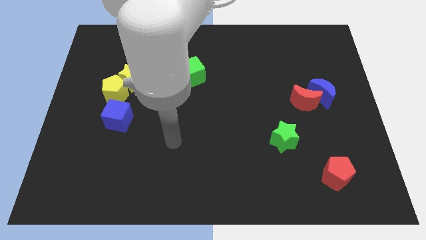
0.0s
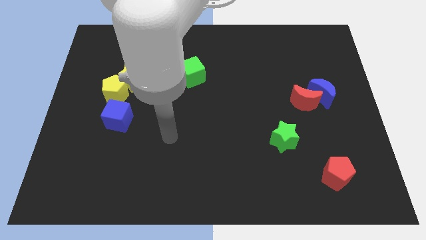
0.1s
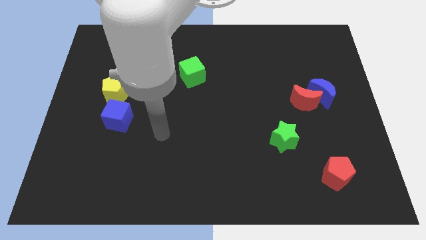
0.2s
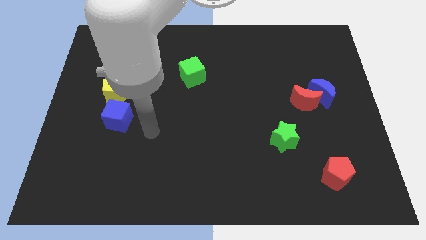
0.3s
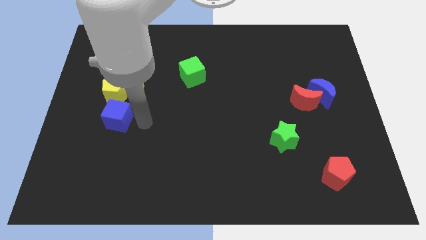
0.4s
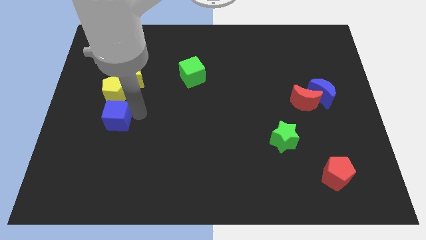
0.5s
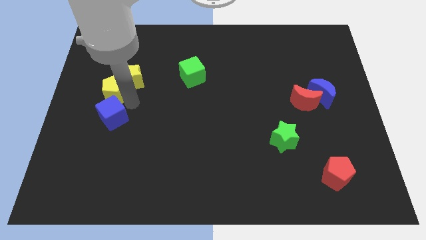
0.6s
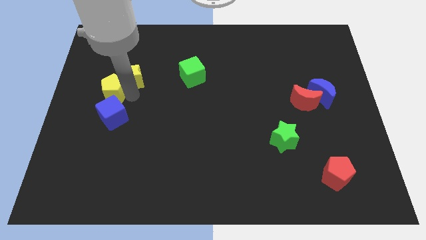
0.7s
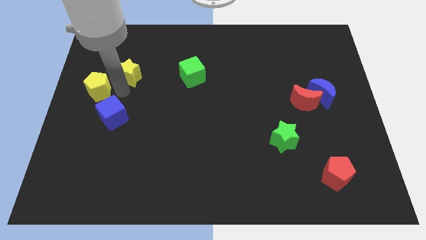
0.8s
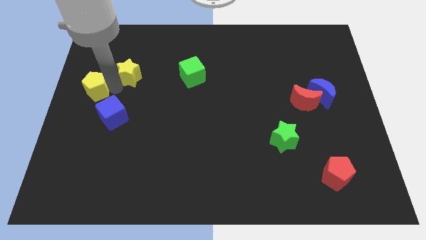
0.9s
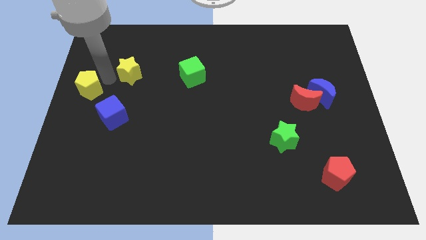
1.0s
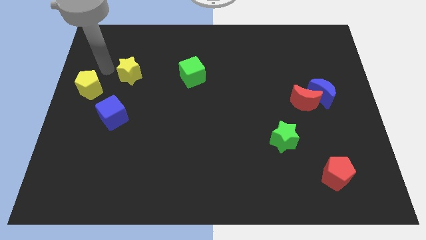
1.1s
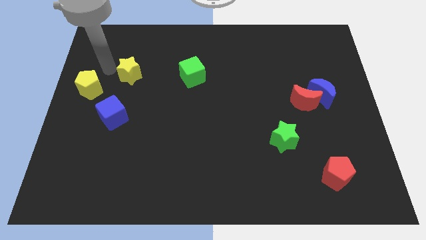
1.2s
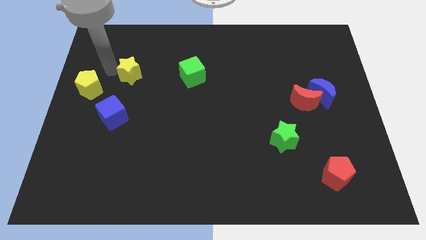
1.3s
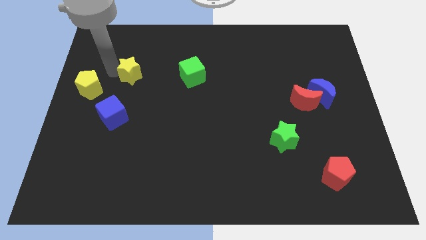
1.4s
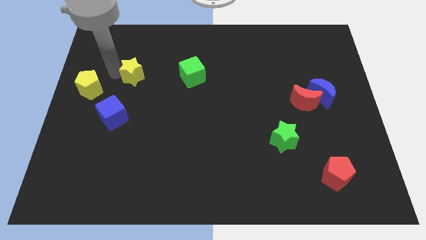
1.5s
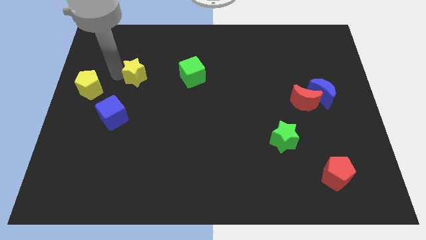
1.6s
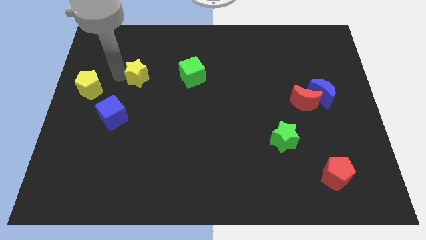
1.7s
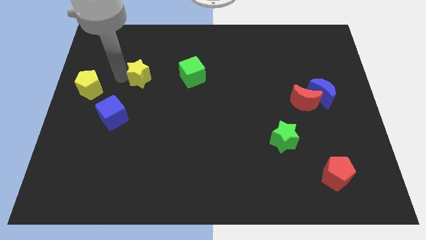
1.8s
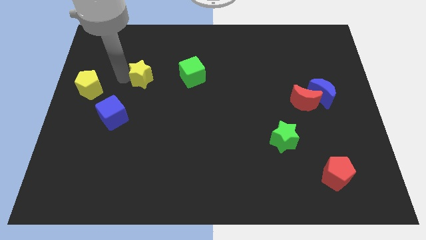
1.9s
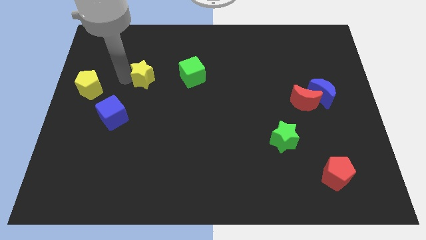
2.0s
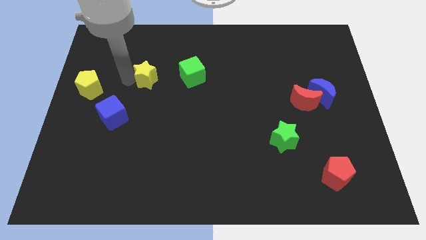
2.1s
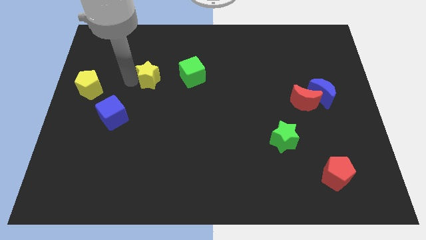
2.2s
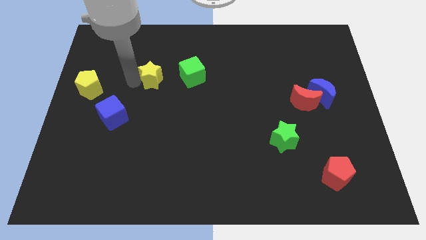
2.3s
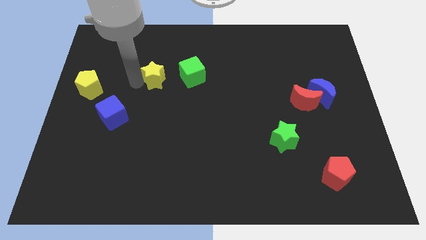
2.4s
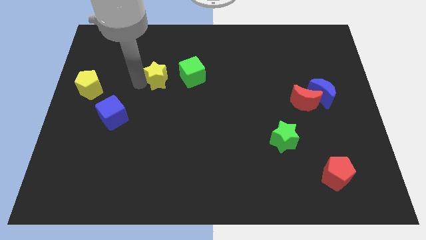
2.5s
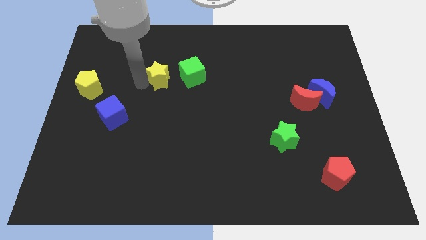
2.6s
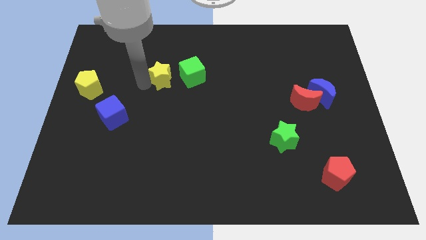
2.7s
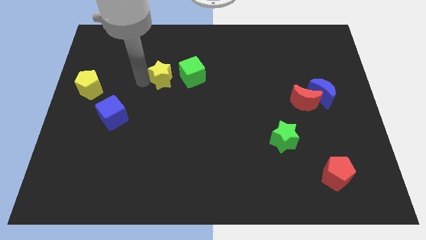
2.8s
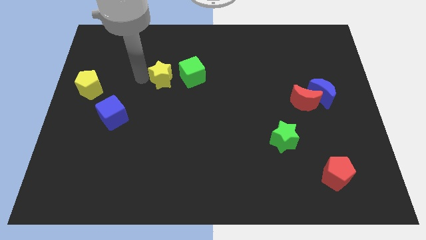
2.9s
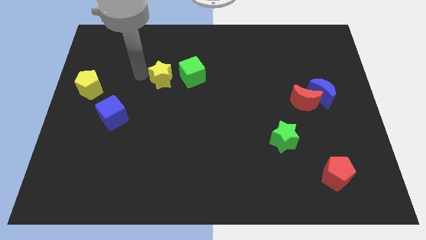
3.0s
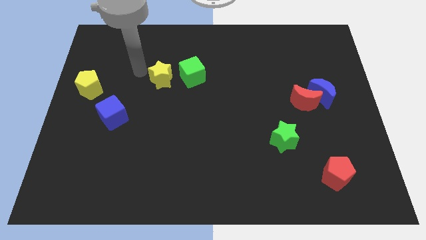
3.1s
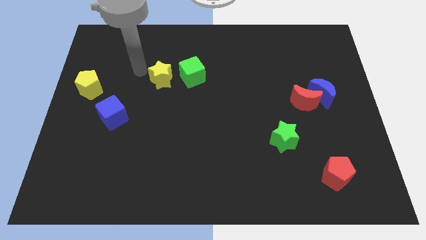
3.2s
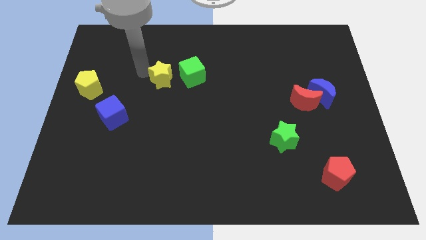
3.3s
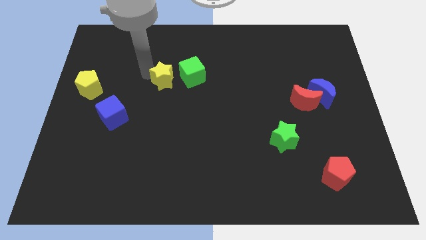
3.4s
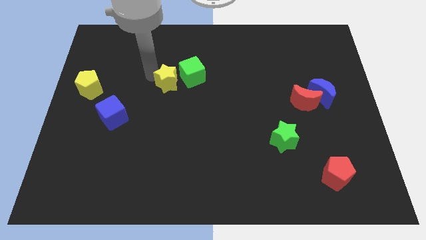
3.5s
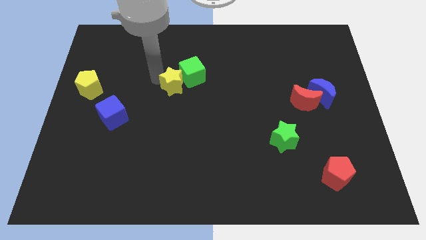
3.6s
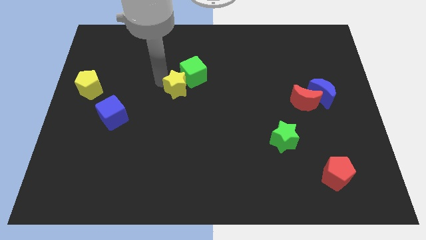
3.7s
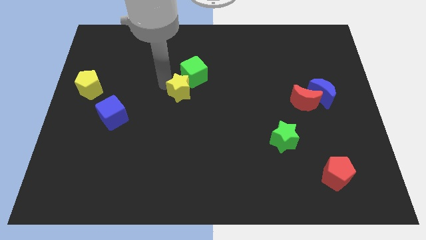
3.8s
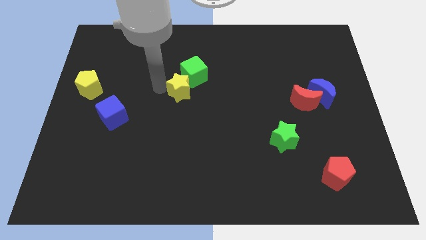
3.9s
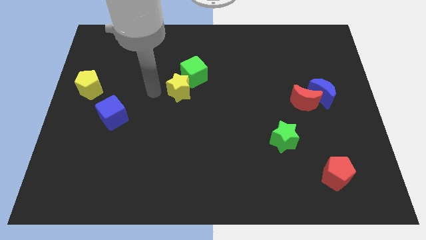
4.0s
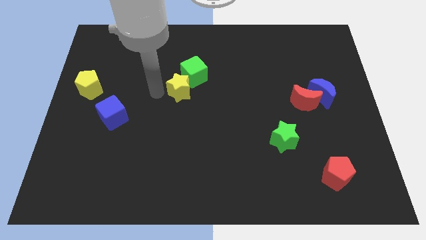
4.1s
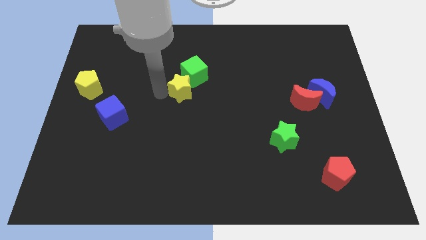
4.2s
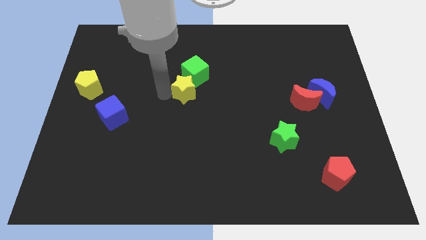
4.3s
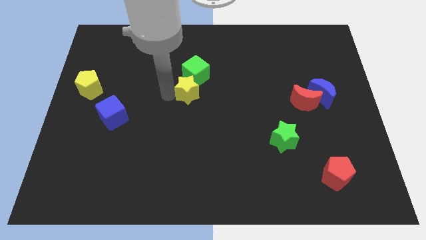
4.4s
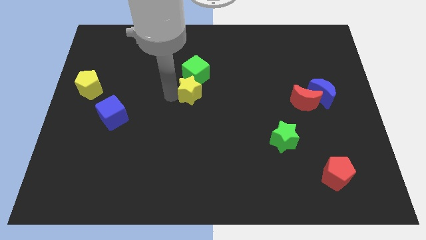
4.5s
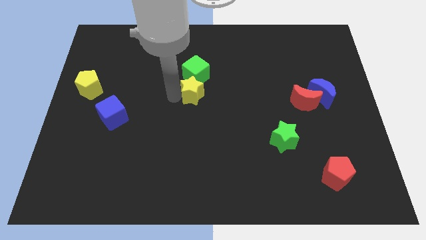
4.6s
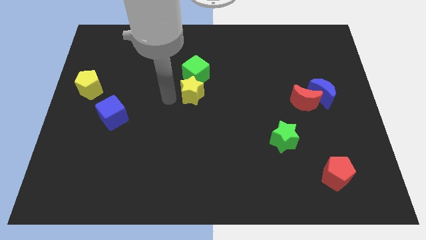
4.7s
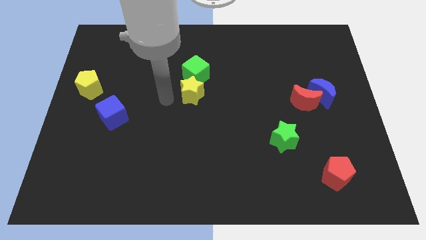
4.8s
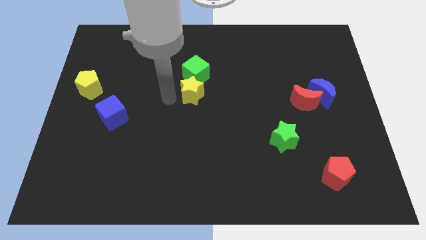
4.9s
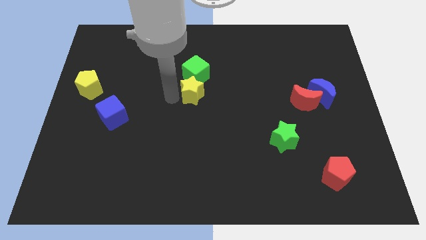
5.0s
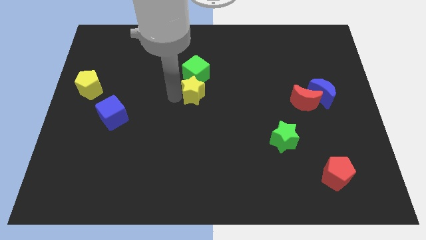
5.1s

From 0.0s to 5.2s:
slide the yellow star to the bottom right side of the green cube

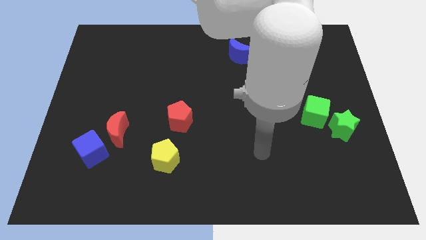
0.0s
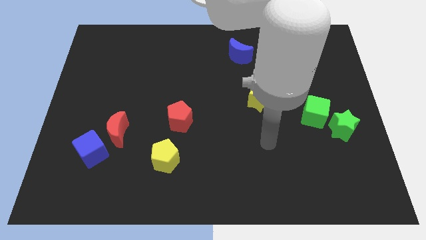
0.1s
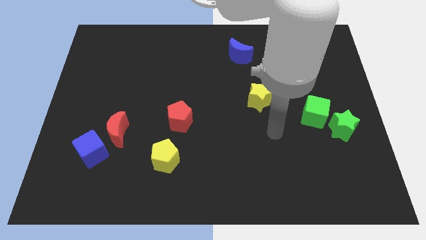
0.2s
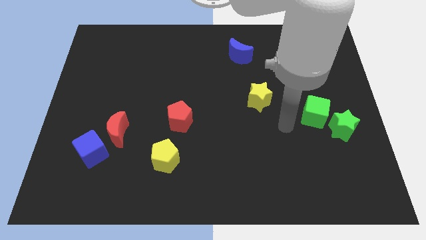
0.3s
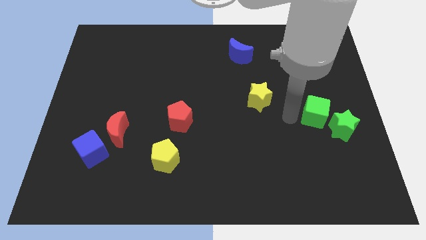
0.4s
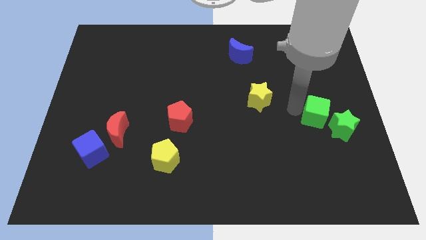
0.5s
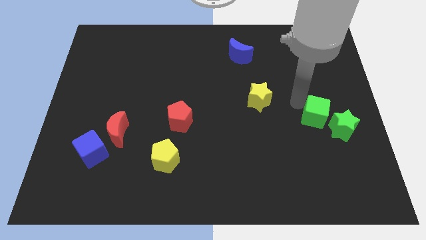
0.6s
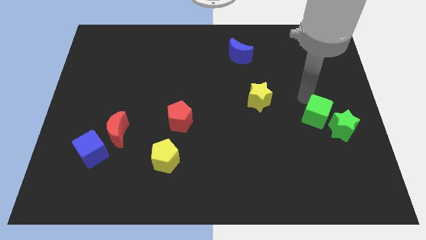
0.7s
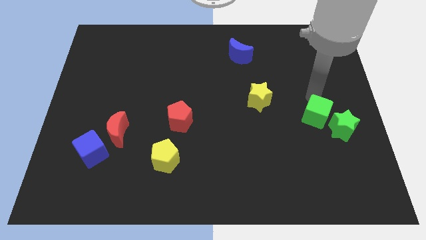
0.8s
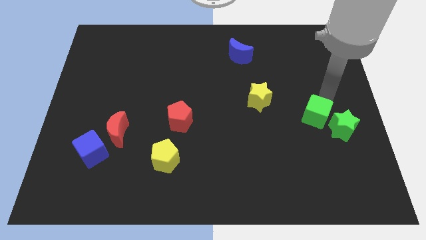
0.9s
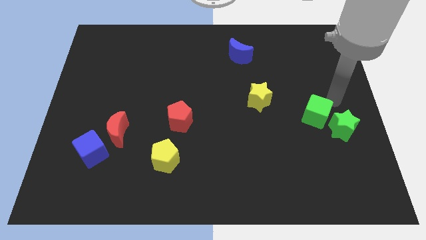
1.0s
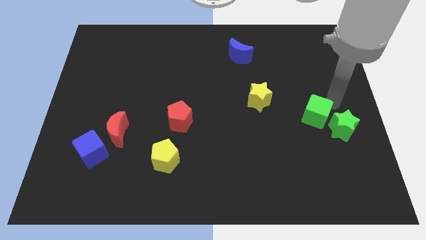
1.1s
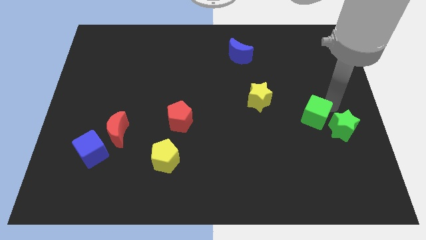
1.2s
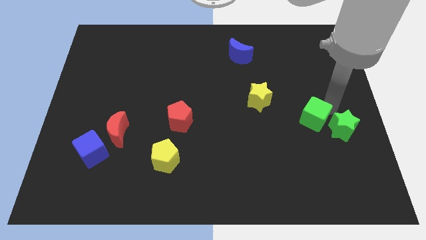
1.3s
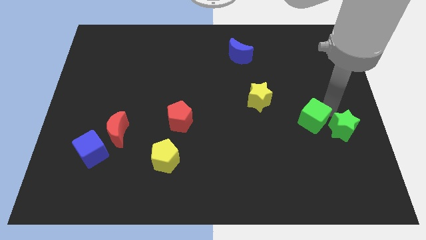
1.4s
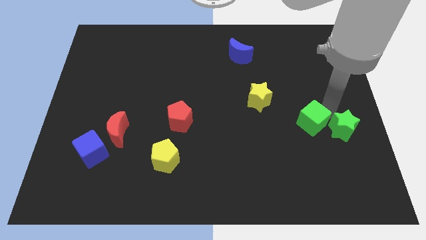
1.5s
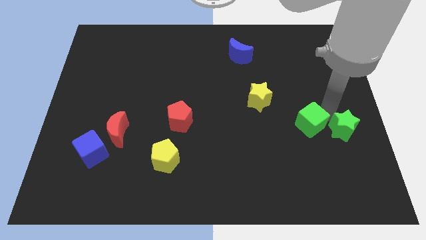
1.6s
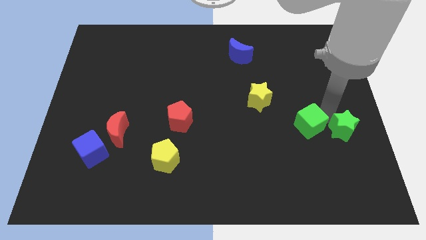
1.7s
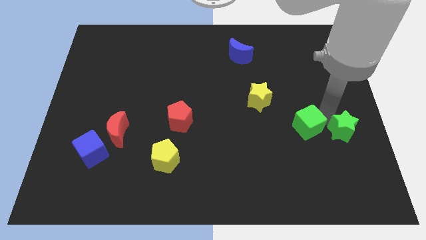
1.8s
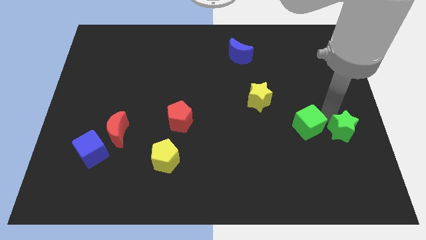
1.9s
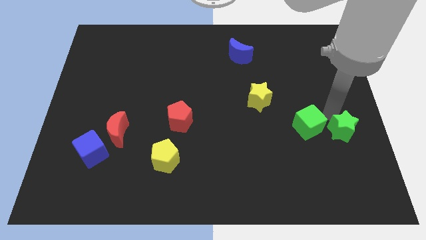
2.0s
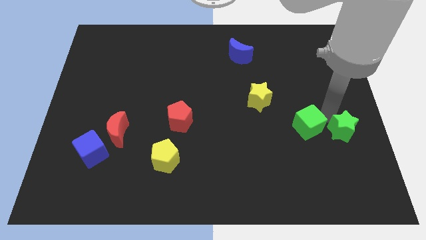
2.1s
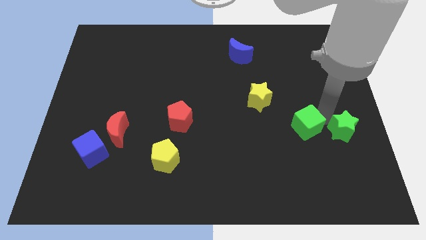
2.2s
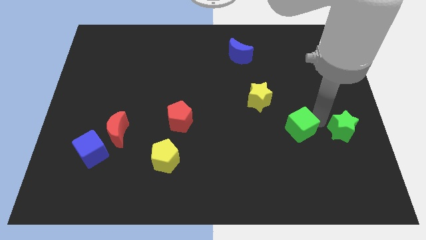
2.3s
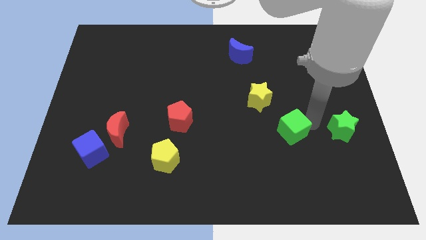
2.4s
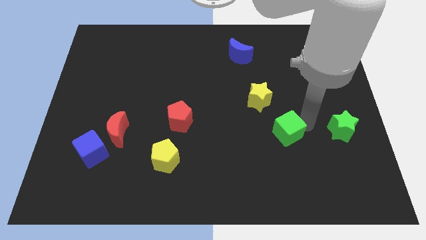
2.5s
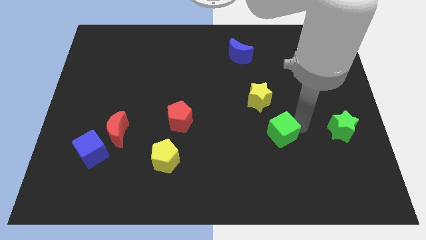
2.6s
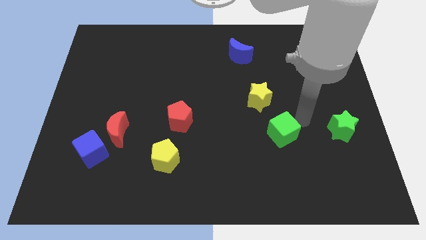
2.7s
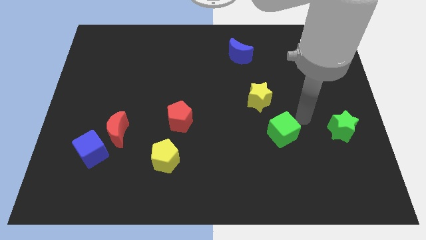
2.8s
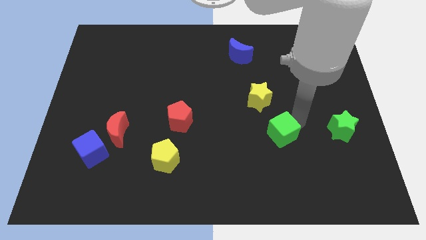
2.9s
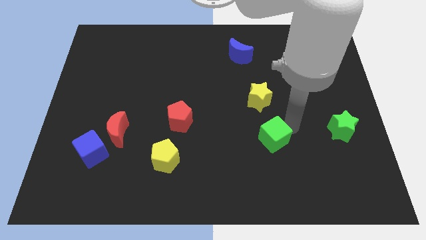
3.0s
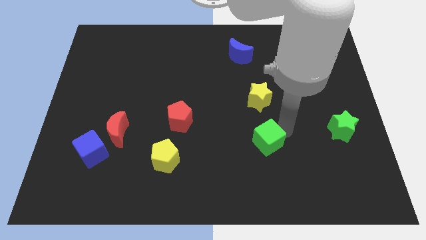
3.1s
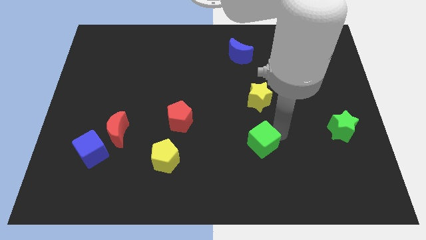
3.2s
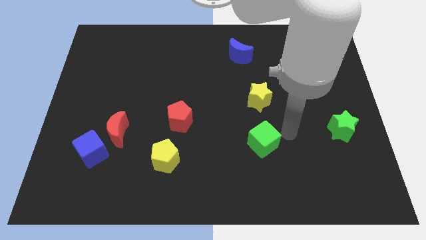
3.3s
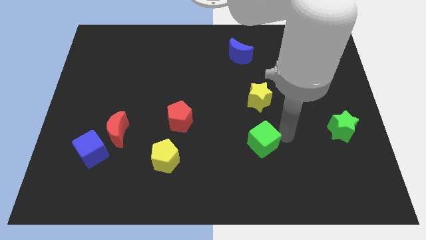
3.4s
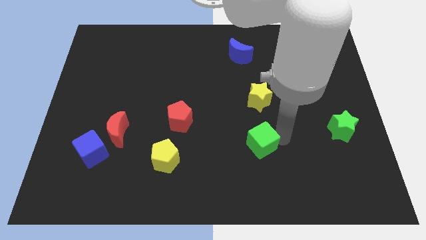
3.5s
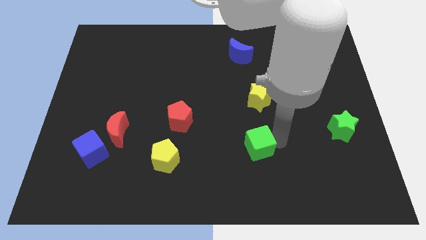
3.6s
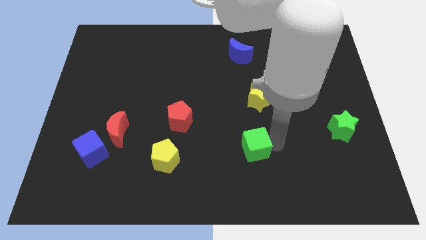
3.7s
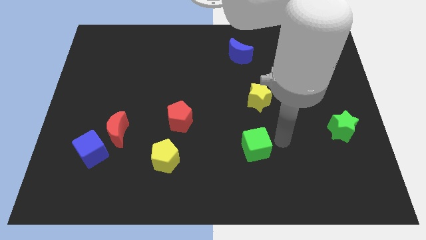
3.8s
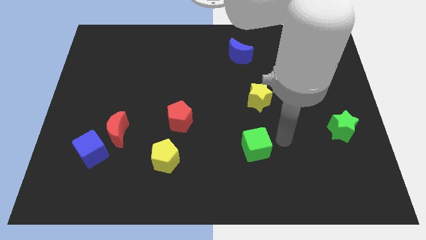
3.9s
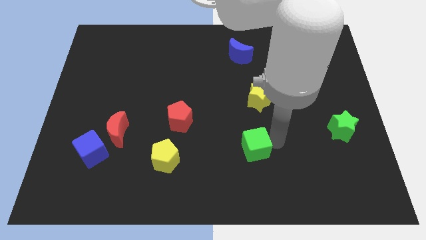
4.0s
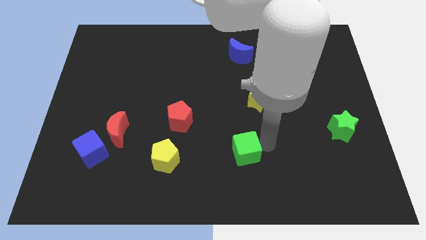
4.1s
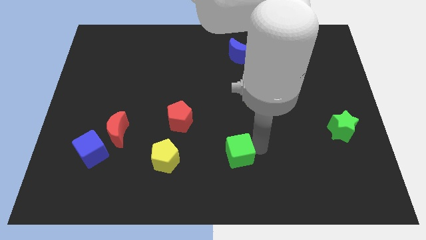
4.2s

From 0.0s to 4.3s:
put the green cube right of the yellow pentagon
